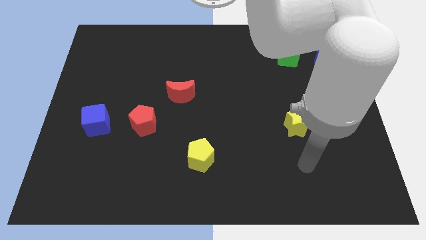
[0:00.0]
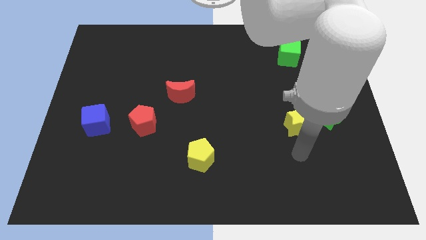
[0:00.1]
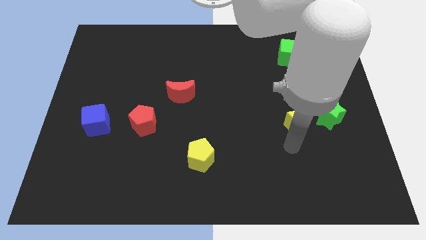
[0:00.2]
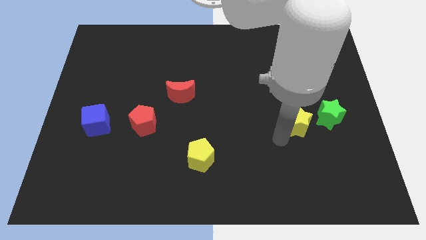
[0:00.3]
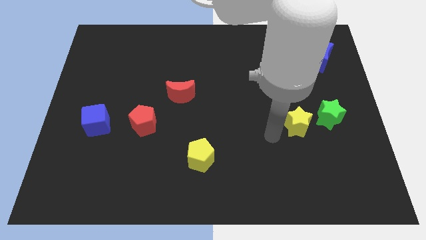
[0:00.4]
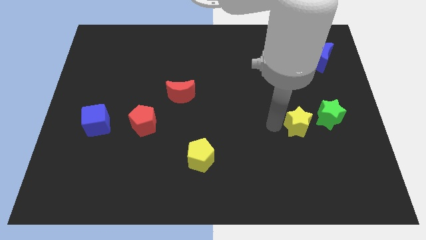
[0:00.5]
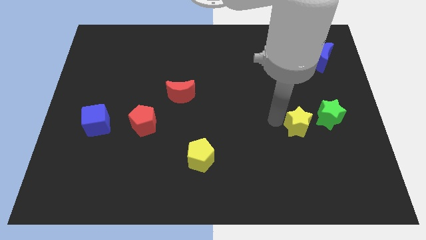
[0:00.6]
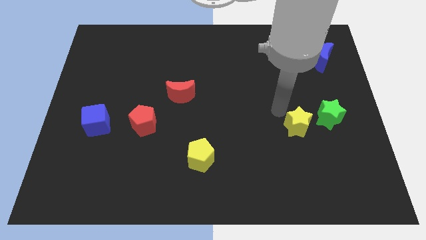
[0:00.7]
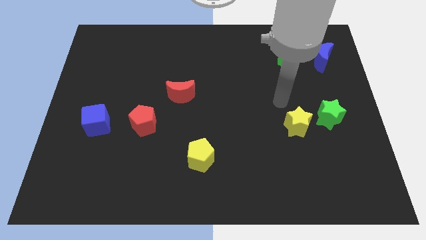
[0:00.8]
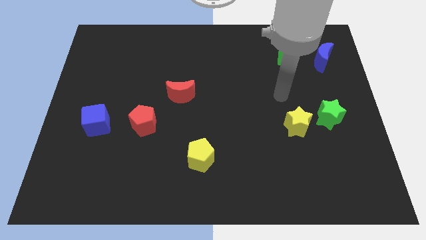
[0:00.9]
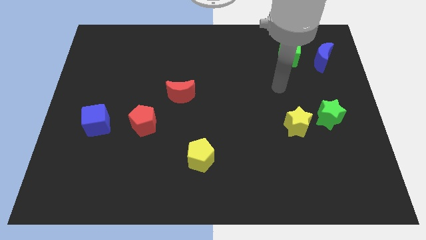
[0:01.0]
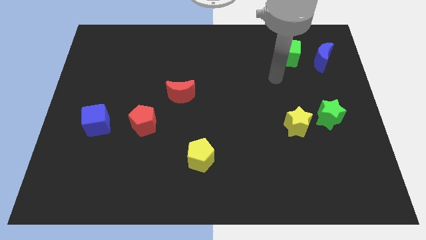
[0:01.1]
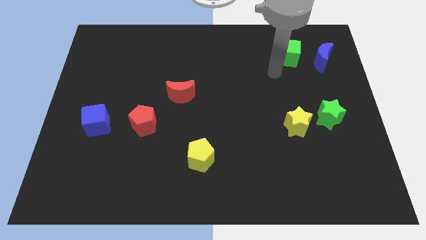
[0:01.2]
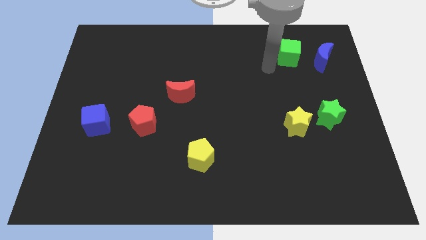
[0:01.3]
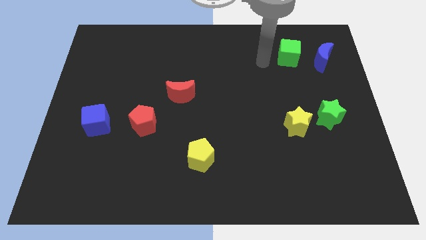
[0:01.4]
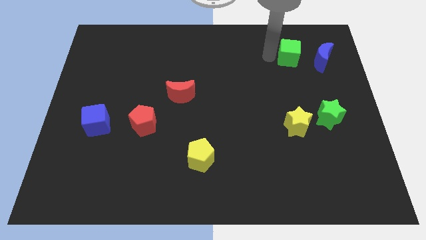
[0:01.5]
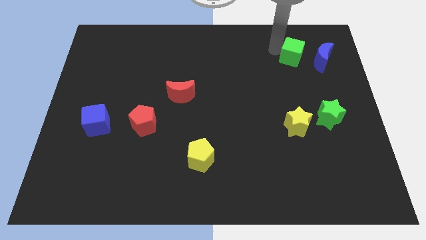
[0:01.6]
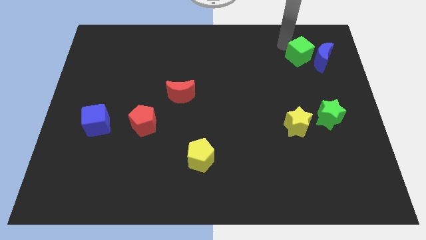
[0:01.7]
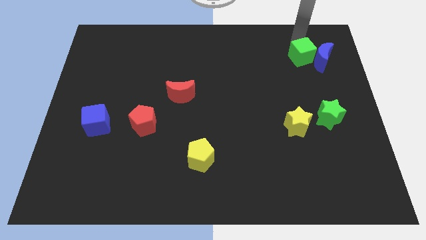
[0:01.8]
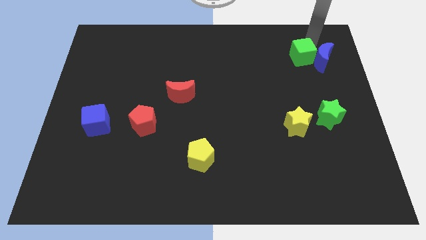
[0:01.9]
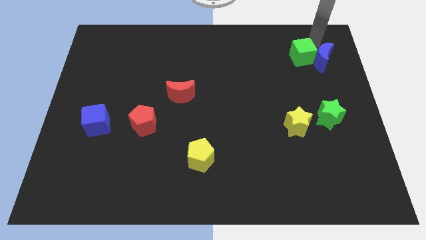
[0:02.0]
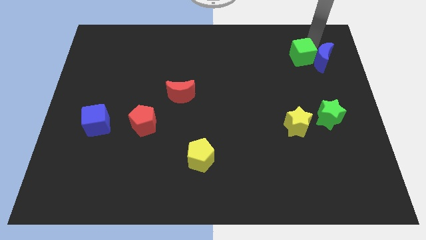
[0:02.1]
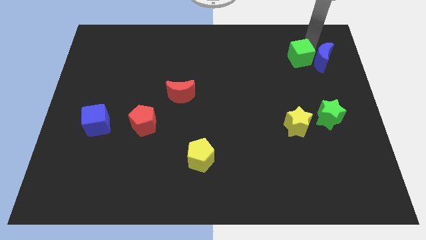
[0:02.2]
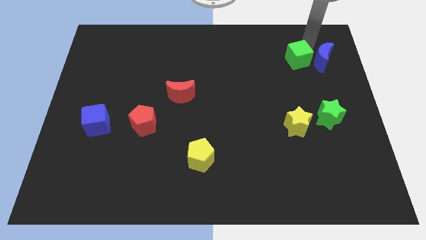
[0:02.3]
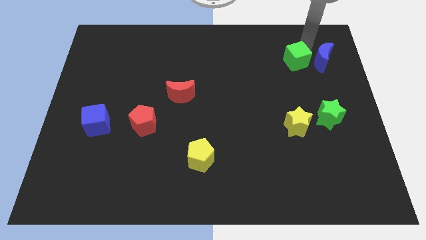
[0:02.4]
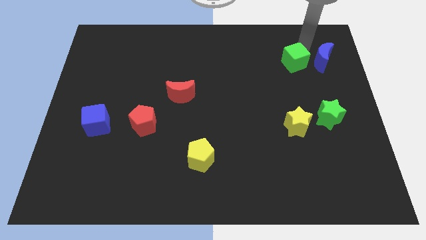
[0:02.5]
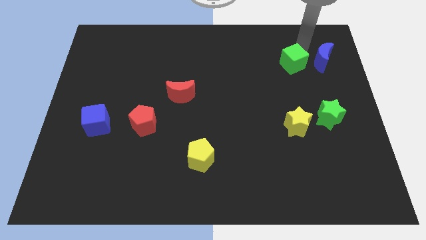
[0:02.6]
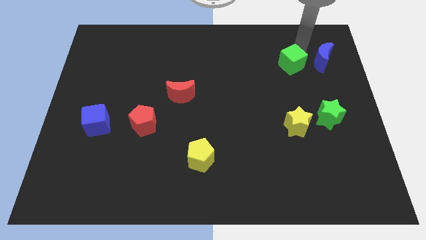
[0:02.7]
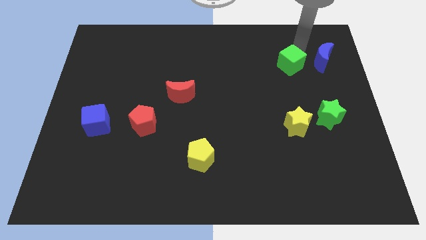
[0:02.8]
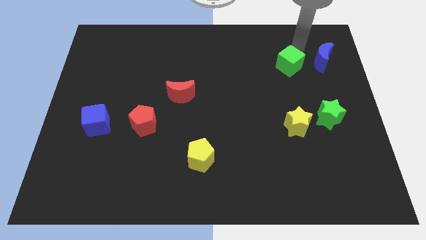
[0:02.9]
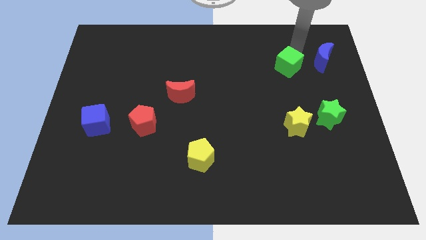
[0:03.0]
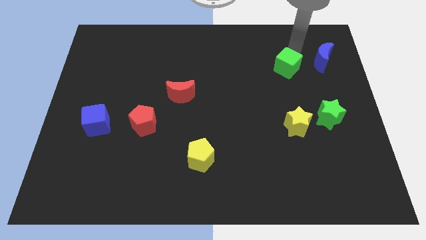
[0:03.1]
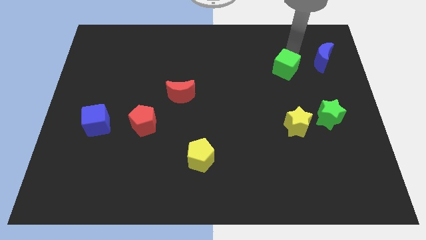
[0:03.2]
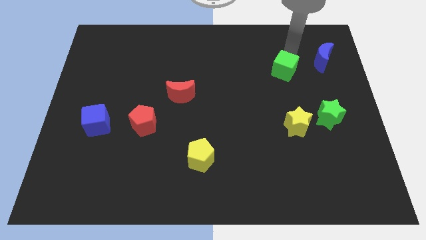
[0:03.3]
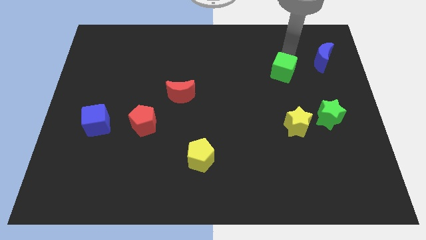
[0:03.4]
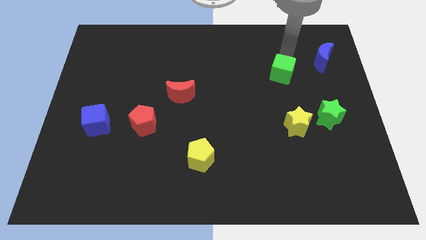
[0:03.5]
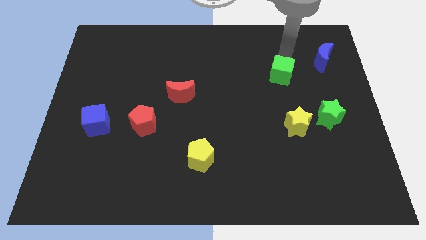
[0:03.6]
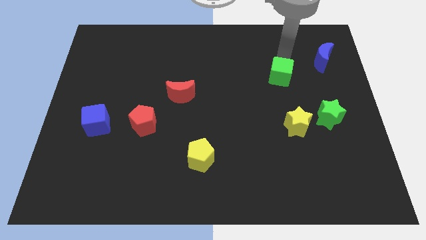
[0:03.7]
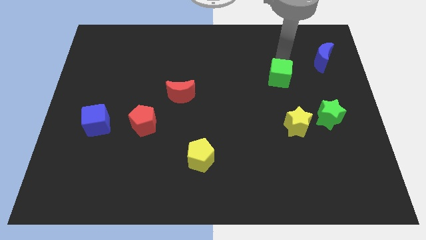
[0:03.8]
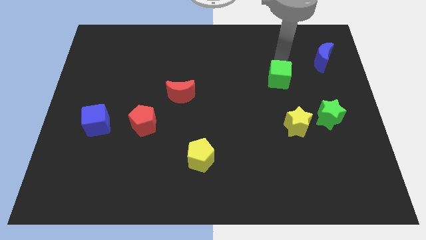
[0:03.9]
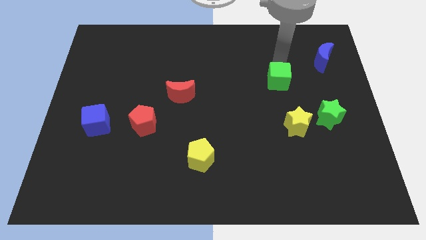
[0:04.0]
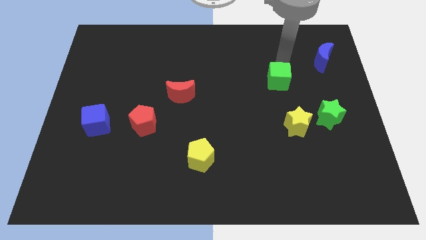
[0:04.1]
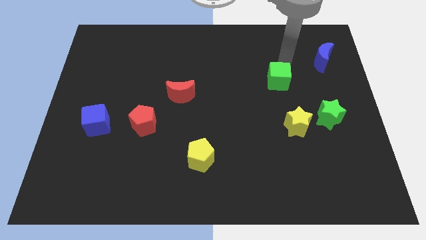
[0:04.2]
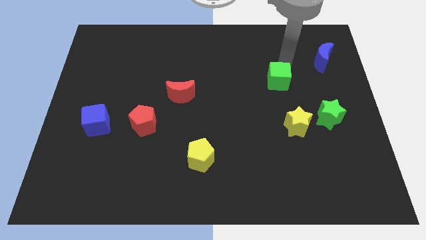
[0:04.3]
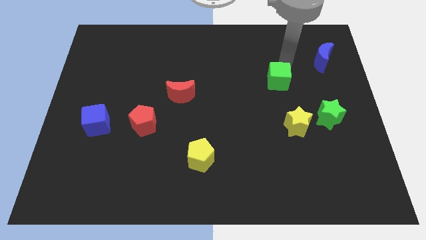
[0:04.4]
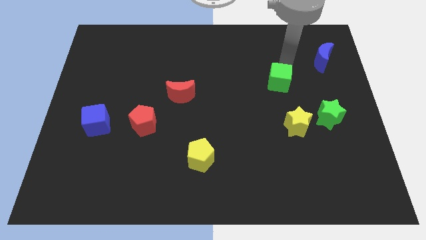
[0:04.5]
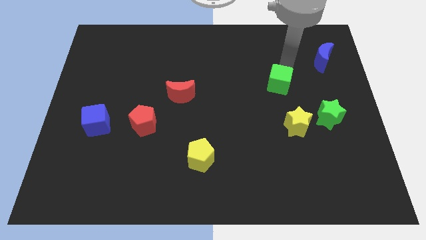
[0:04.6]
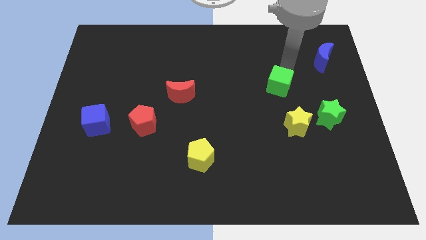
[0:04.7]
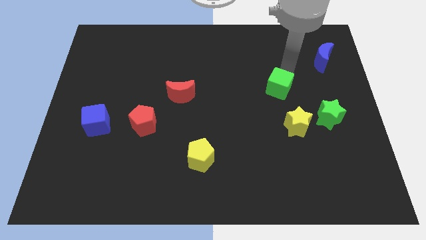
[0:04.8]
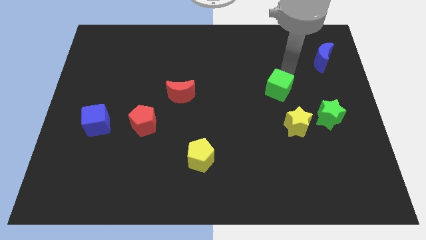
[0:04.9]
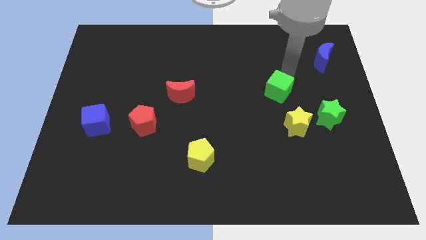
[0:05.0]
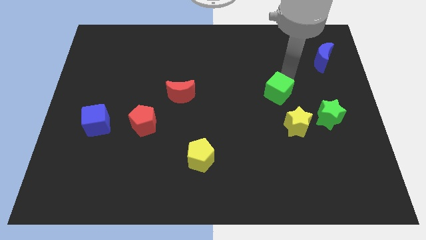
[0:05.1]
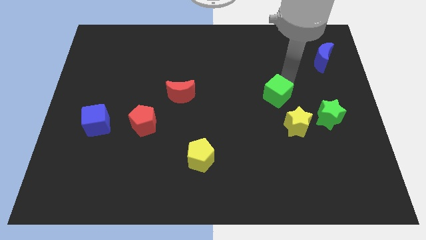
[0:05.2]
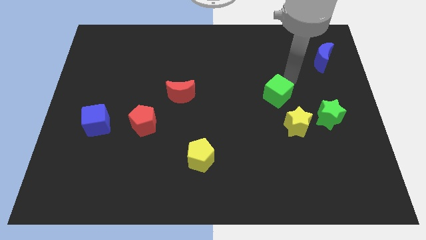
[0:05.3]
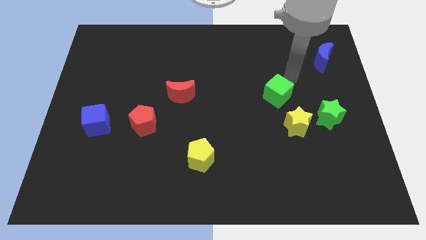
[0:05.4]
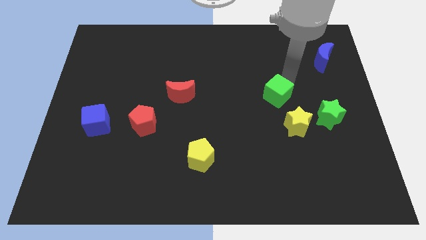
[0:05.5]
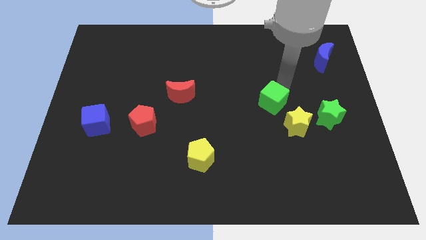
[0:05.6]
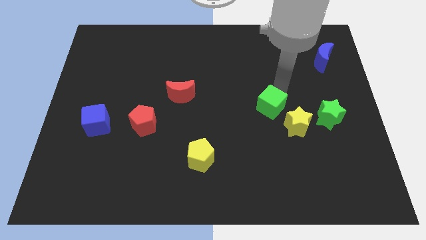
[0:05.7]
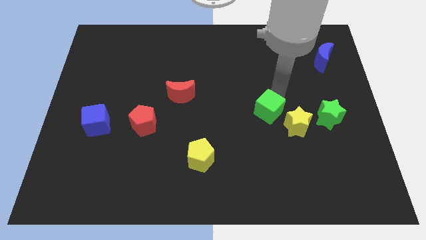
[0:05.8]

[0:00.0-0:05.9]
move the green cube just left of the yellow star

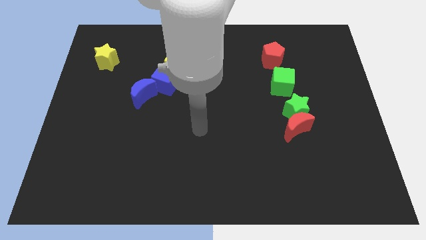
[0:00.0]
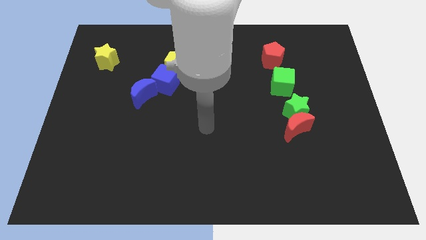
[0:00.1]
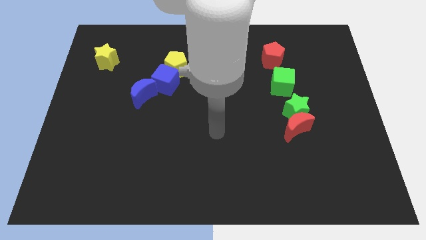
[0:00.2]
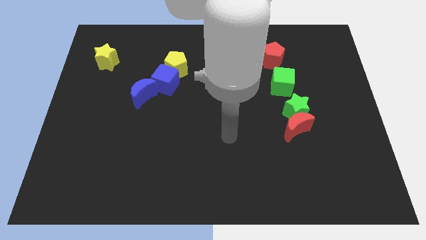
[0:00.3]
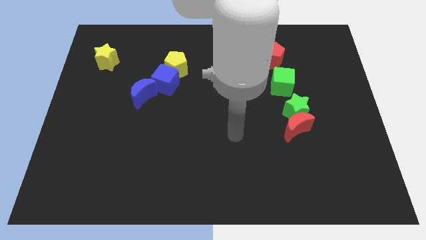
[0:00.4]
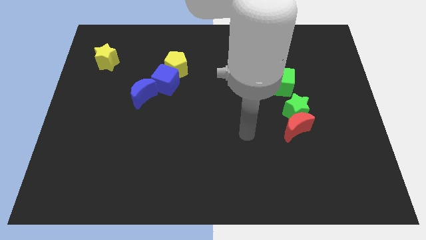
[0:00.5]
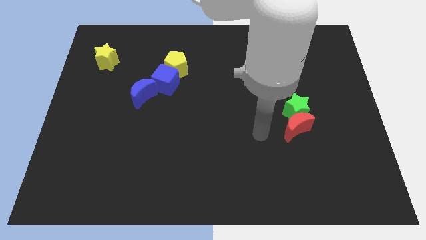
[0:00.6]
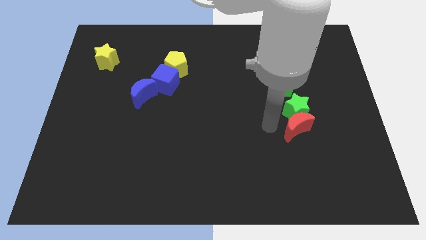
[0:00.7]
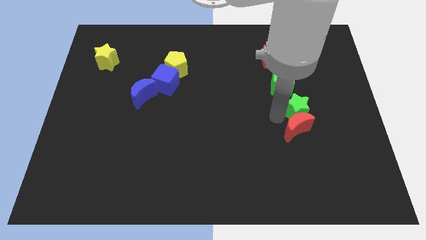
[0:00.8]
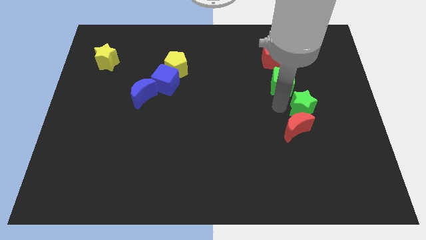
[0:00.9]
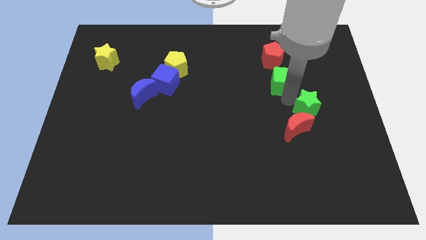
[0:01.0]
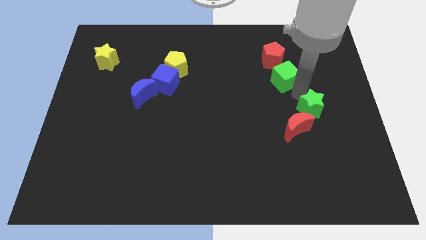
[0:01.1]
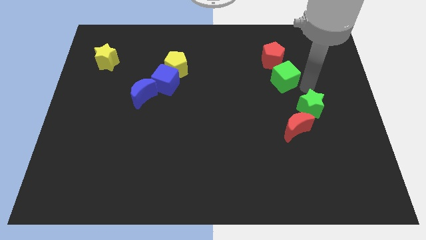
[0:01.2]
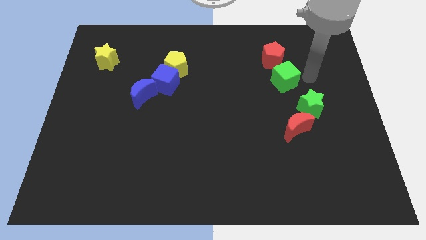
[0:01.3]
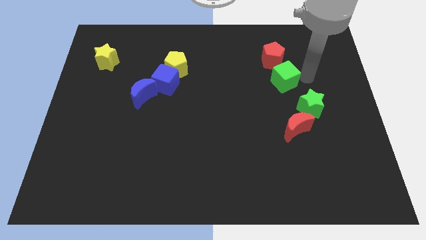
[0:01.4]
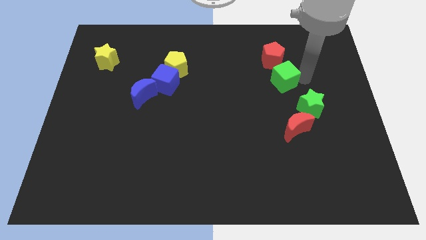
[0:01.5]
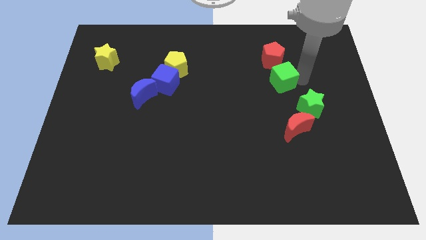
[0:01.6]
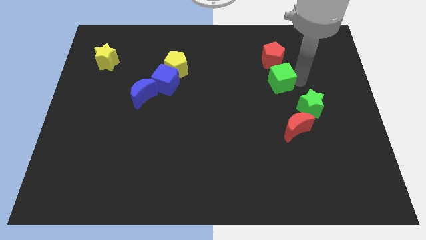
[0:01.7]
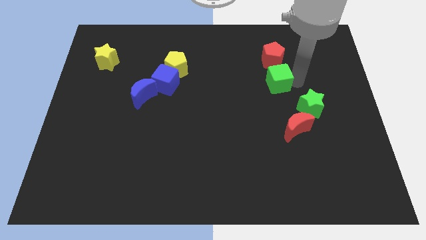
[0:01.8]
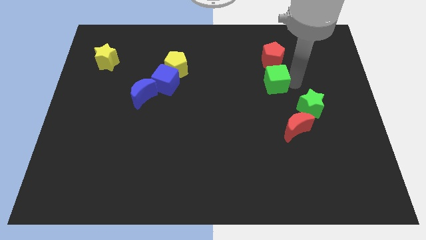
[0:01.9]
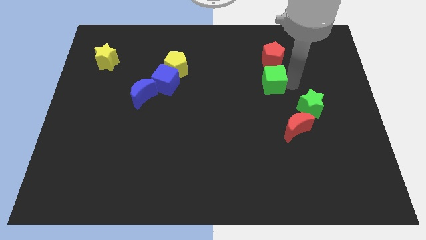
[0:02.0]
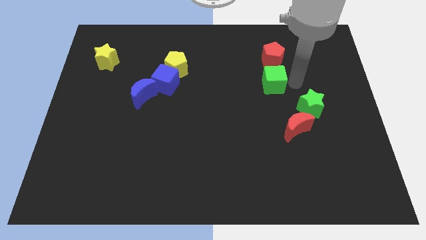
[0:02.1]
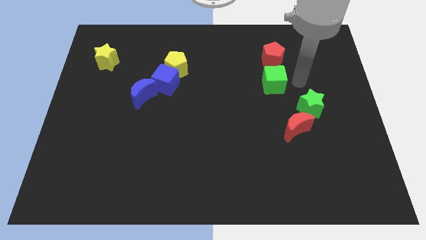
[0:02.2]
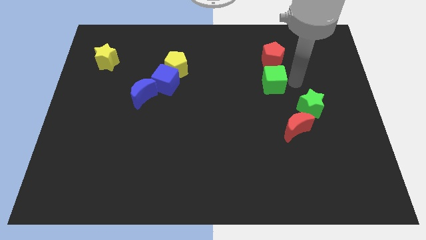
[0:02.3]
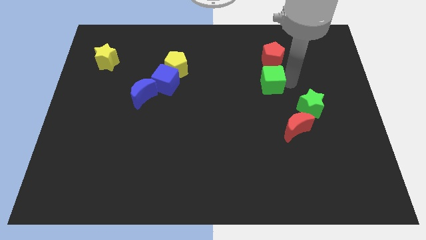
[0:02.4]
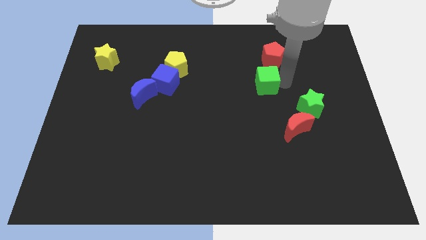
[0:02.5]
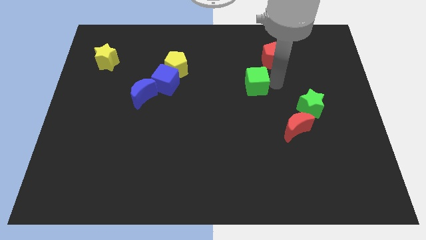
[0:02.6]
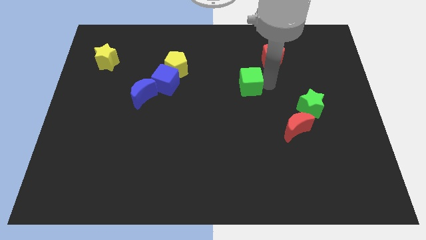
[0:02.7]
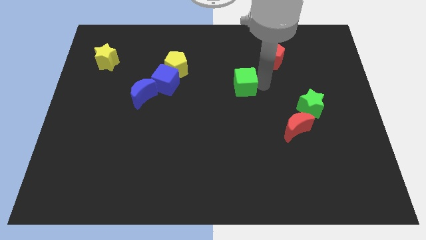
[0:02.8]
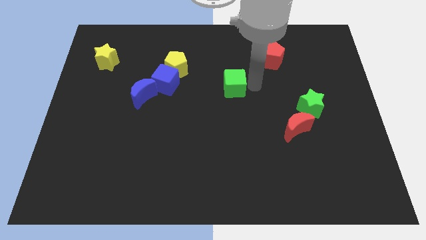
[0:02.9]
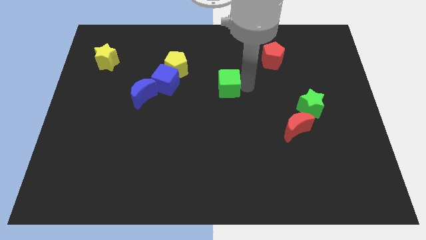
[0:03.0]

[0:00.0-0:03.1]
put the green cube to the right side of the blue cube
